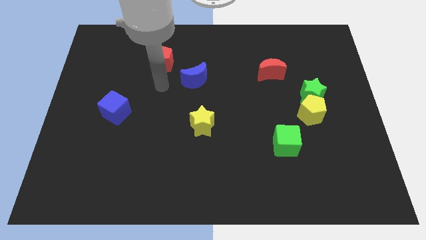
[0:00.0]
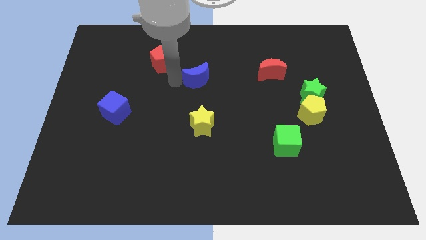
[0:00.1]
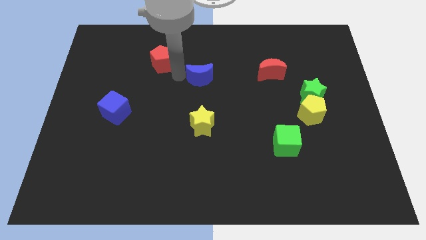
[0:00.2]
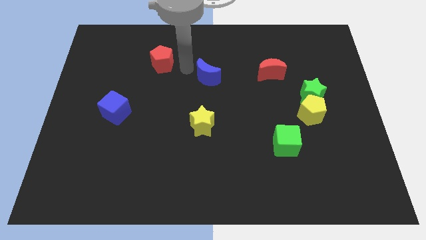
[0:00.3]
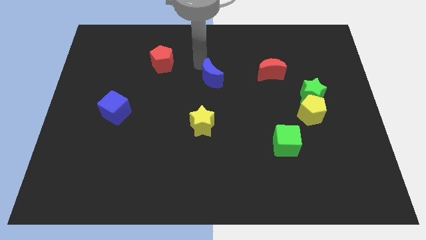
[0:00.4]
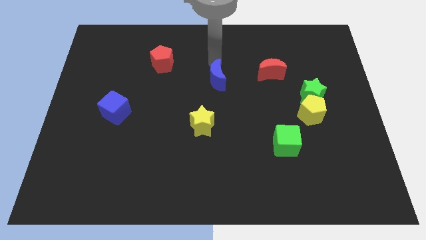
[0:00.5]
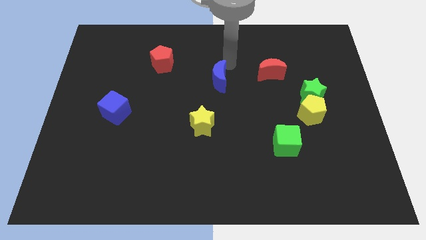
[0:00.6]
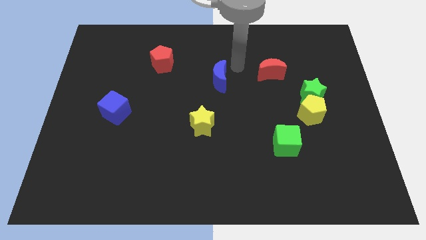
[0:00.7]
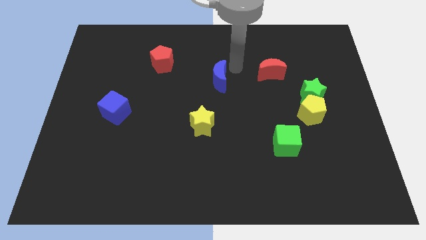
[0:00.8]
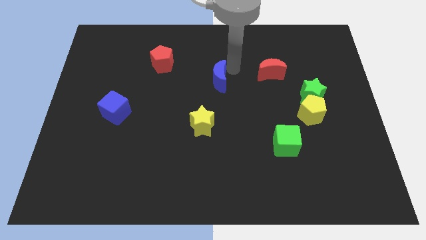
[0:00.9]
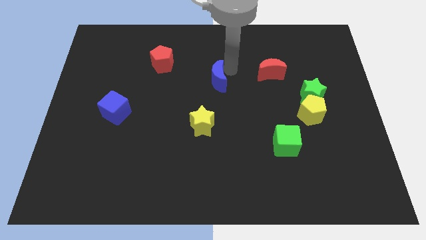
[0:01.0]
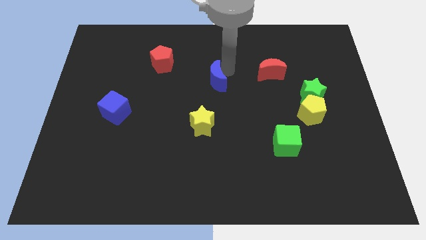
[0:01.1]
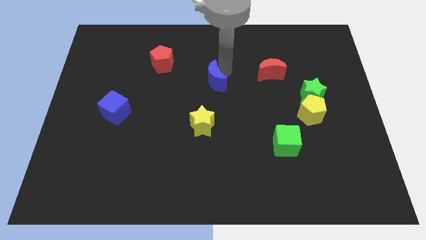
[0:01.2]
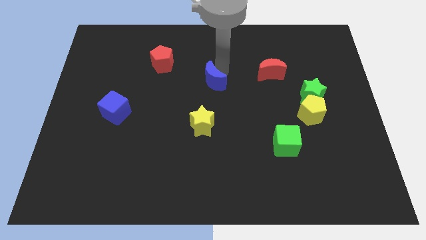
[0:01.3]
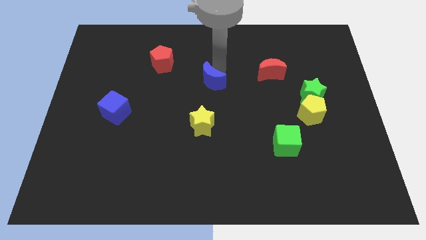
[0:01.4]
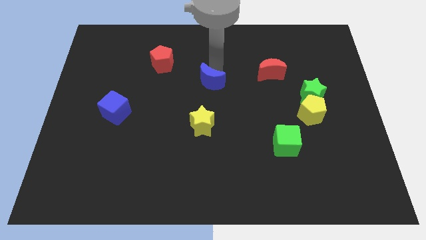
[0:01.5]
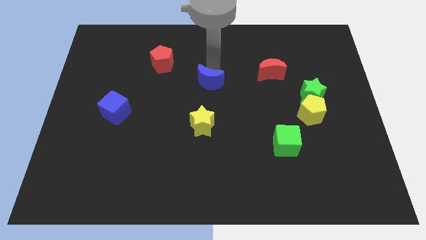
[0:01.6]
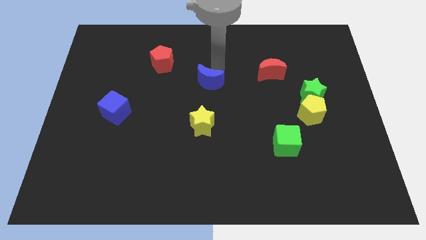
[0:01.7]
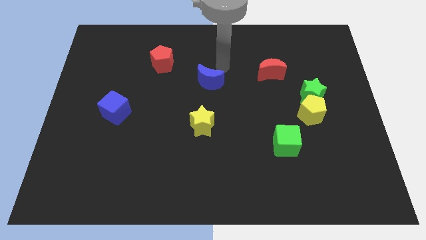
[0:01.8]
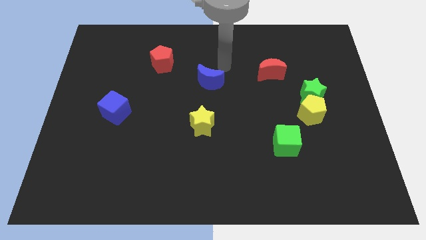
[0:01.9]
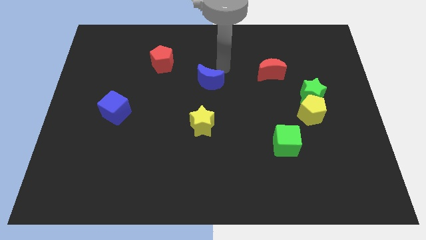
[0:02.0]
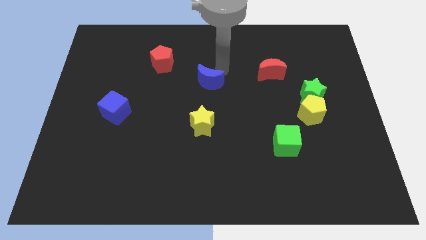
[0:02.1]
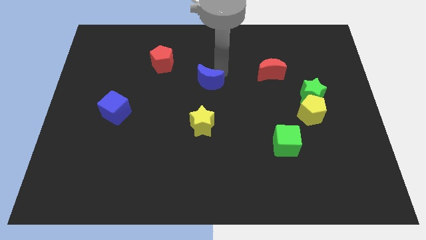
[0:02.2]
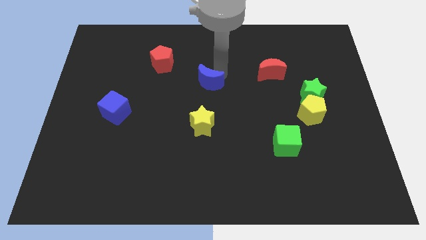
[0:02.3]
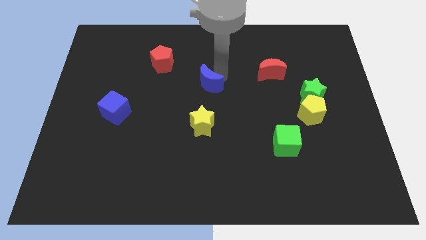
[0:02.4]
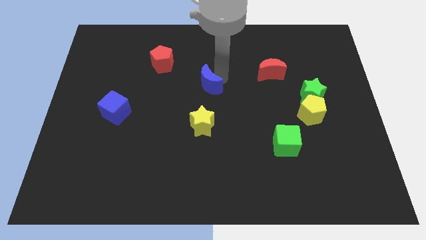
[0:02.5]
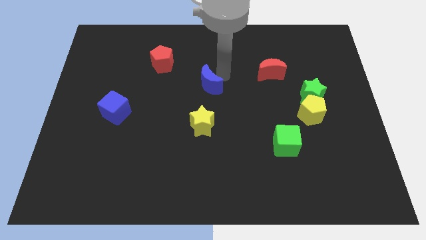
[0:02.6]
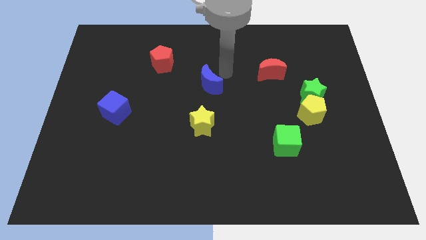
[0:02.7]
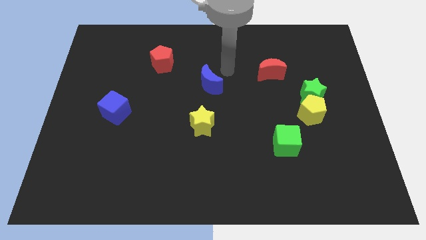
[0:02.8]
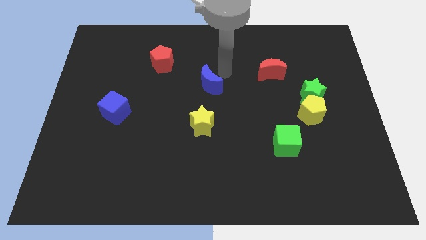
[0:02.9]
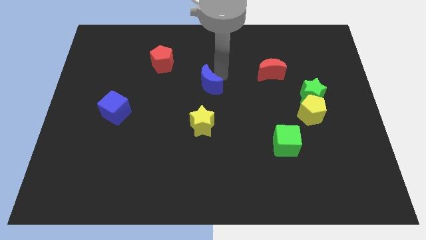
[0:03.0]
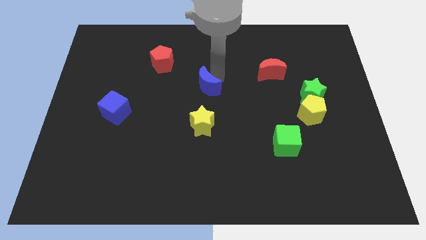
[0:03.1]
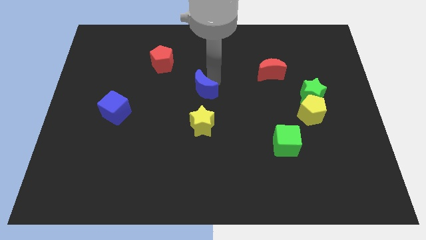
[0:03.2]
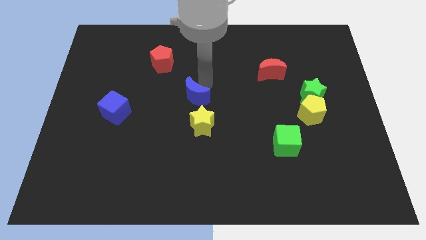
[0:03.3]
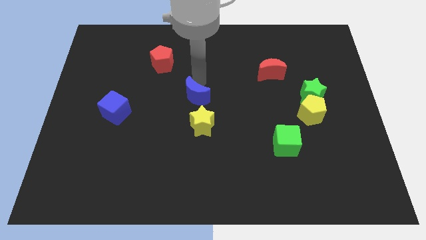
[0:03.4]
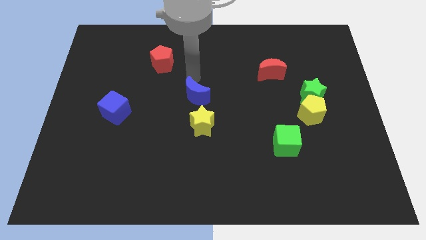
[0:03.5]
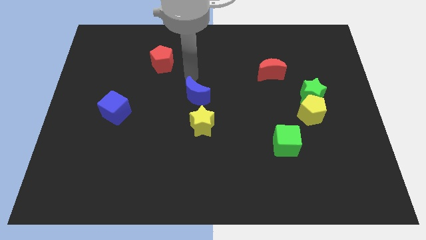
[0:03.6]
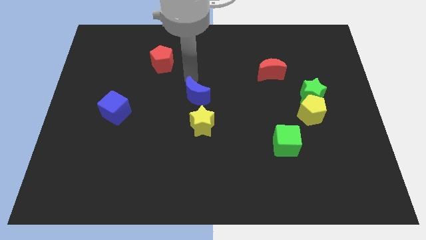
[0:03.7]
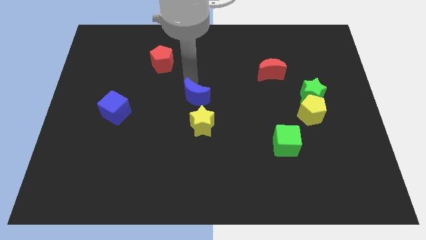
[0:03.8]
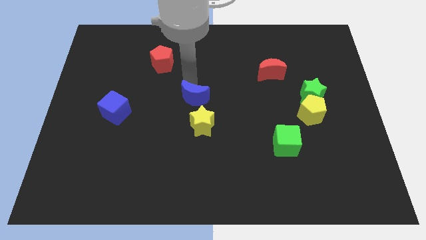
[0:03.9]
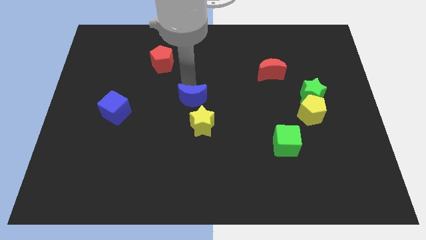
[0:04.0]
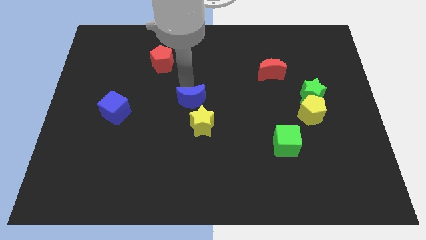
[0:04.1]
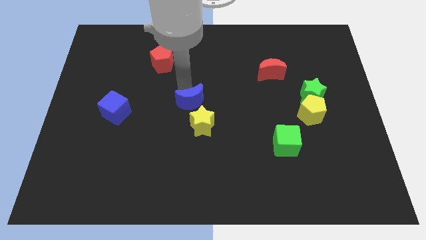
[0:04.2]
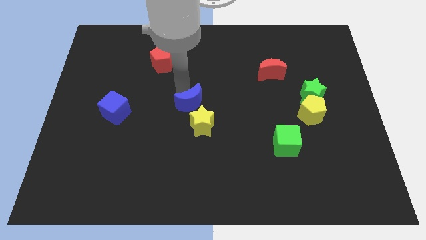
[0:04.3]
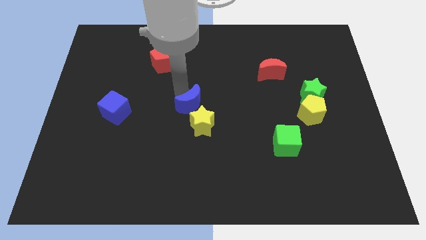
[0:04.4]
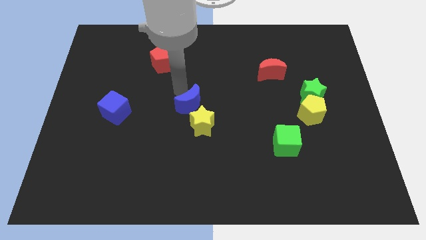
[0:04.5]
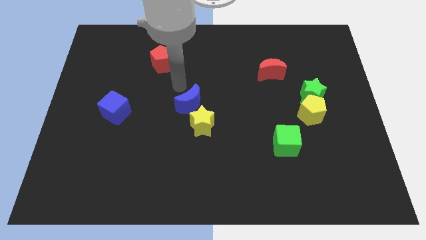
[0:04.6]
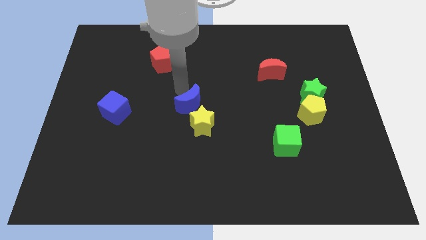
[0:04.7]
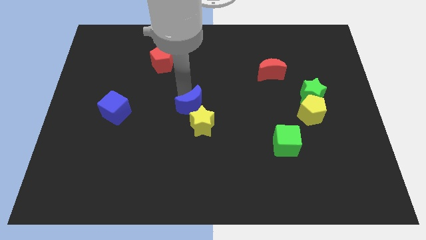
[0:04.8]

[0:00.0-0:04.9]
slide the blue moon towards the yellow star

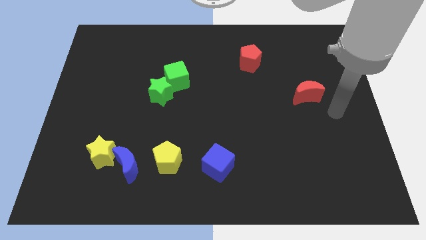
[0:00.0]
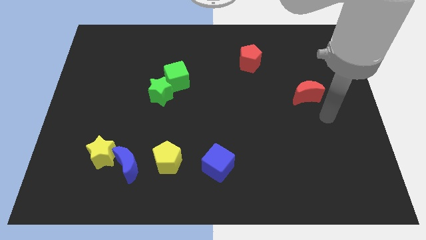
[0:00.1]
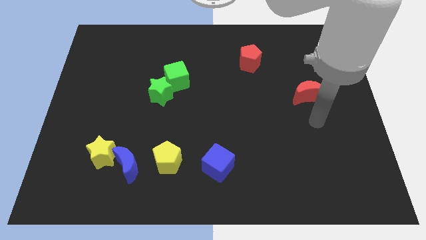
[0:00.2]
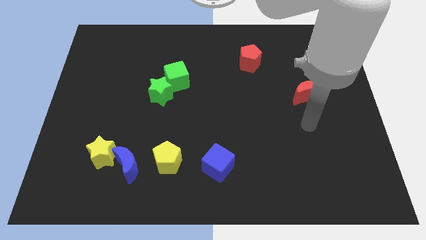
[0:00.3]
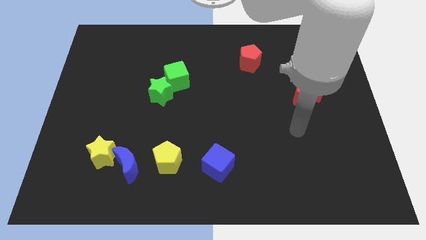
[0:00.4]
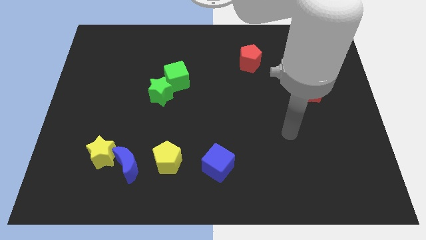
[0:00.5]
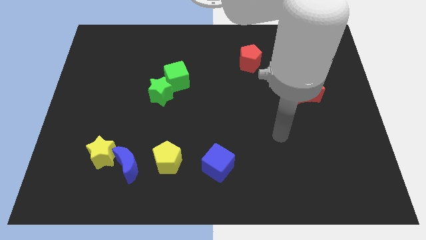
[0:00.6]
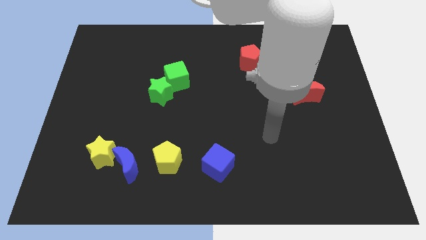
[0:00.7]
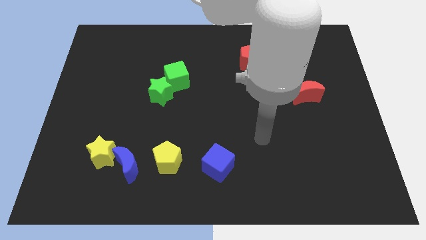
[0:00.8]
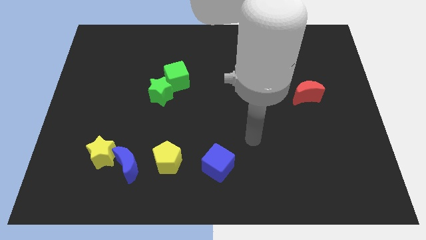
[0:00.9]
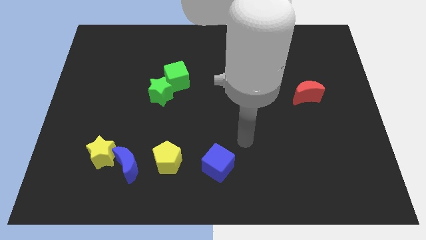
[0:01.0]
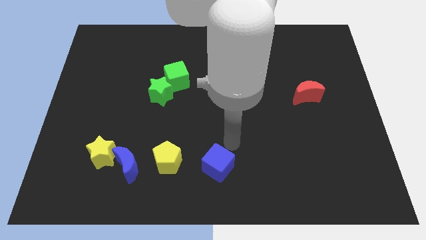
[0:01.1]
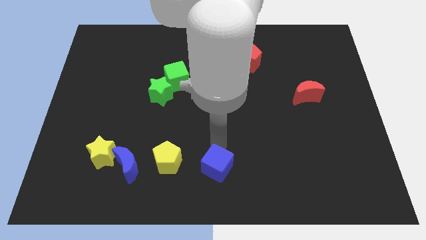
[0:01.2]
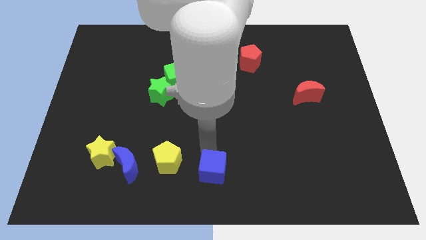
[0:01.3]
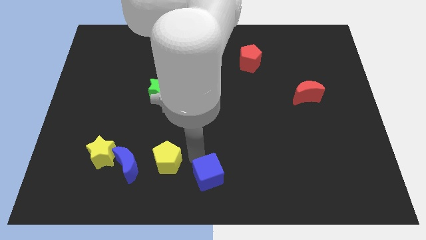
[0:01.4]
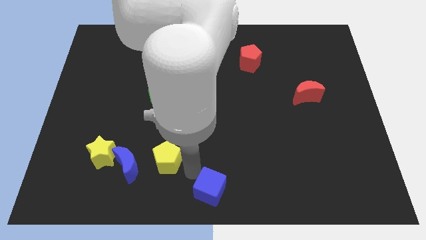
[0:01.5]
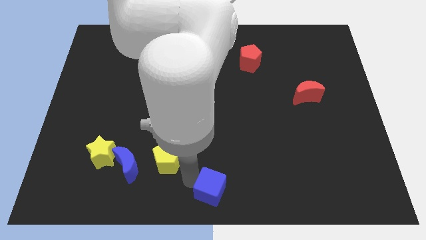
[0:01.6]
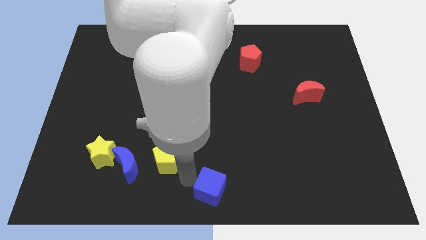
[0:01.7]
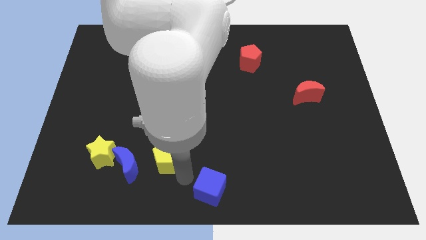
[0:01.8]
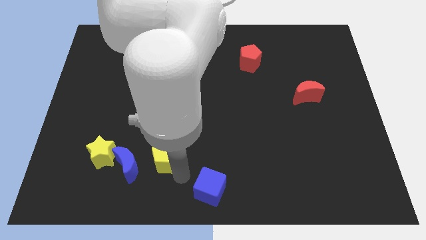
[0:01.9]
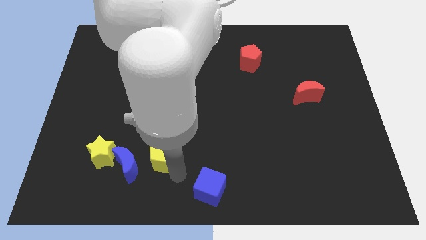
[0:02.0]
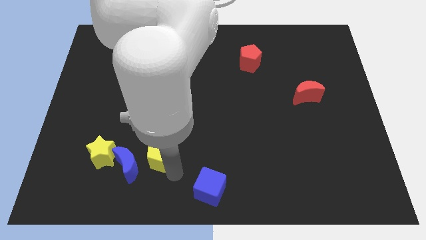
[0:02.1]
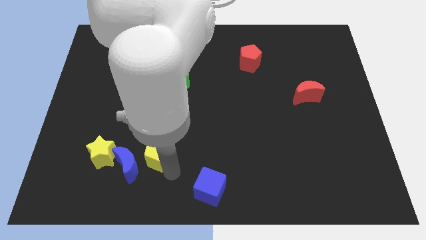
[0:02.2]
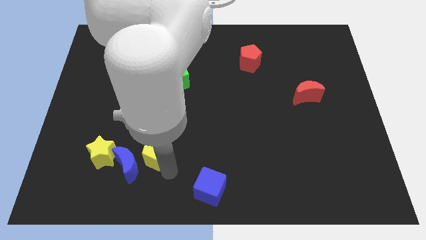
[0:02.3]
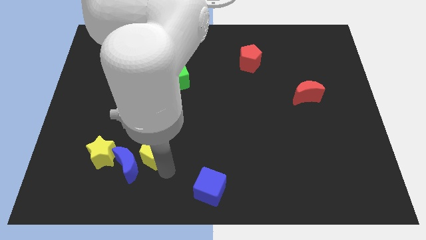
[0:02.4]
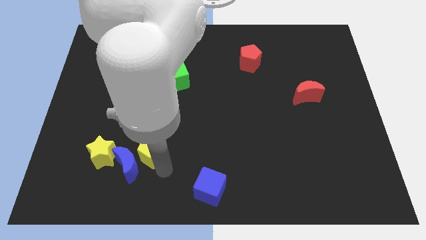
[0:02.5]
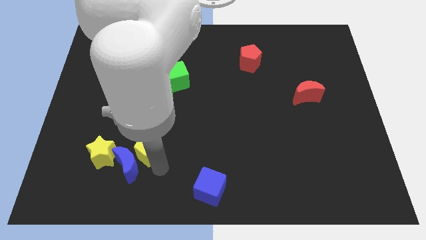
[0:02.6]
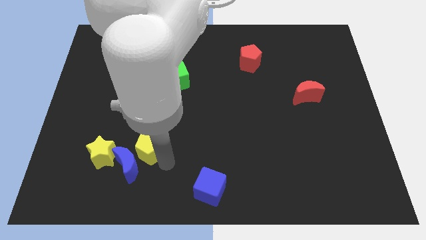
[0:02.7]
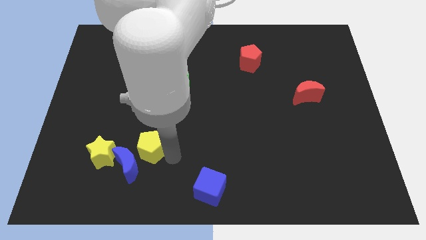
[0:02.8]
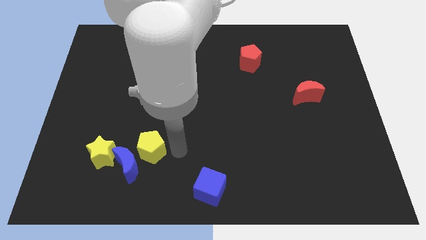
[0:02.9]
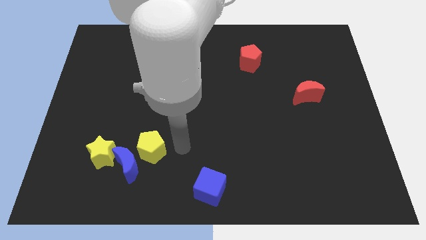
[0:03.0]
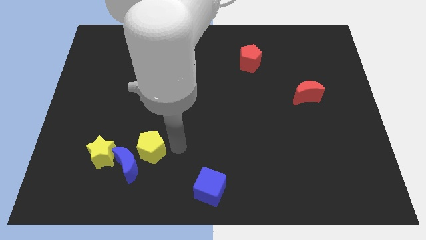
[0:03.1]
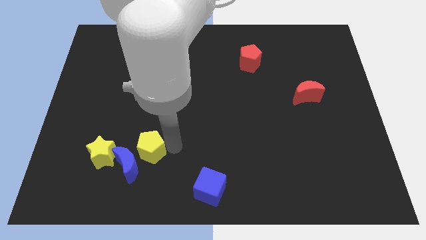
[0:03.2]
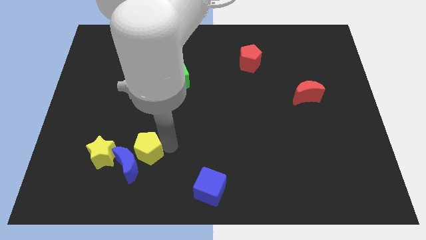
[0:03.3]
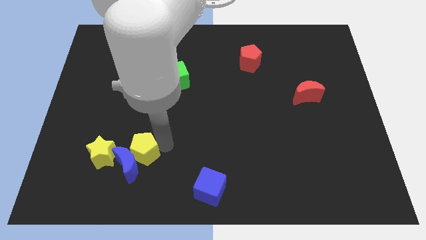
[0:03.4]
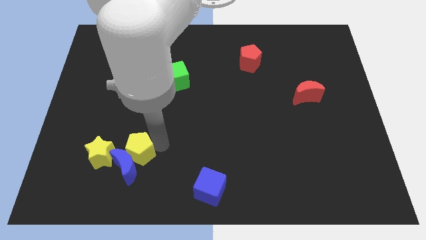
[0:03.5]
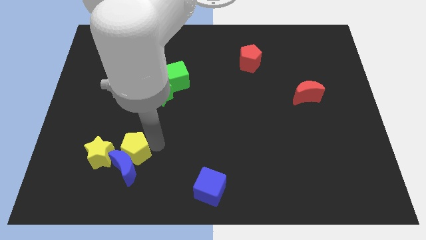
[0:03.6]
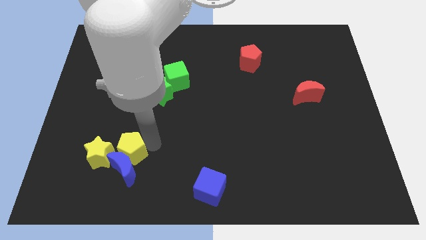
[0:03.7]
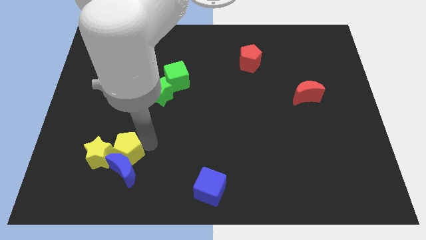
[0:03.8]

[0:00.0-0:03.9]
move the yellow pentagon to the yellow star
